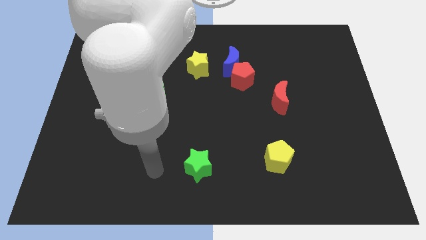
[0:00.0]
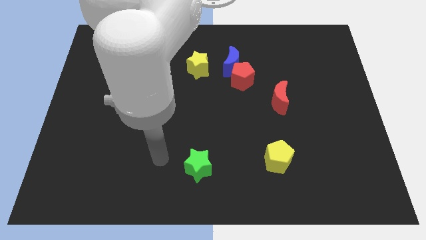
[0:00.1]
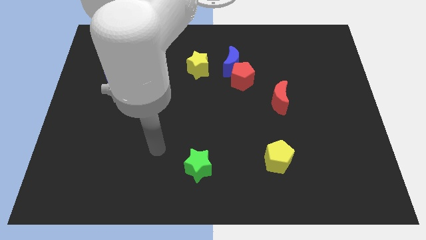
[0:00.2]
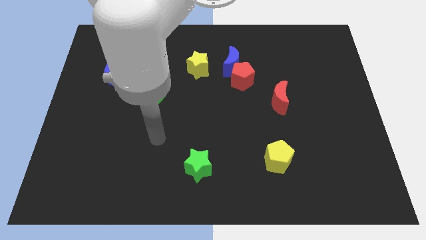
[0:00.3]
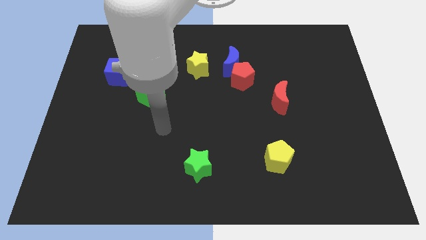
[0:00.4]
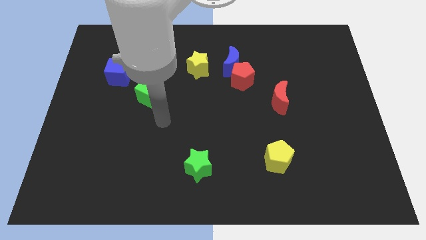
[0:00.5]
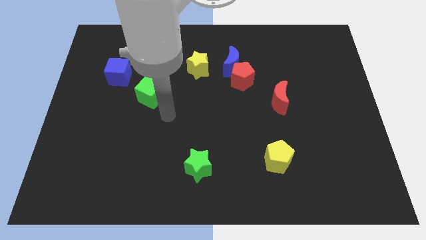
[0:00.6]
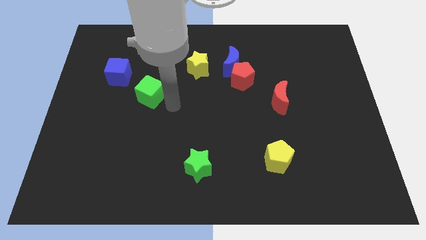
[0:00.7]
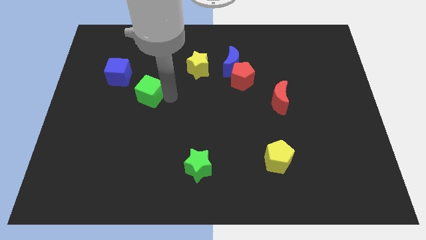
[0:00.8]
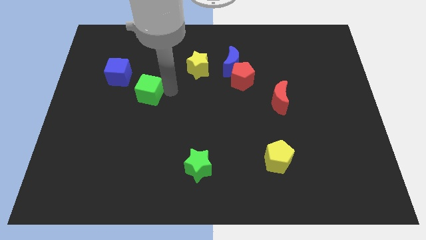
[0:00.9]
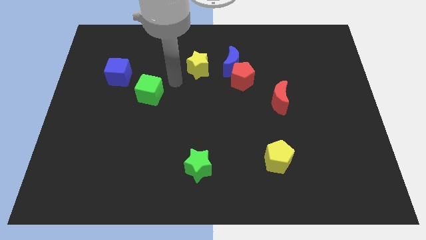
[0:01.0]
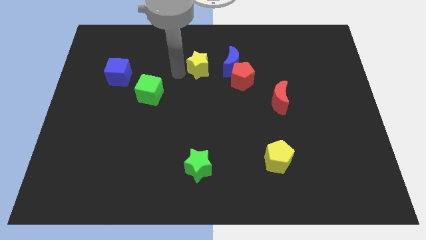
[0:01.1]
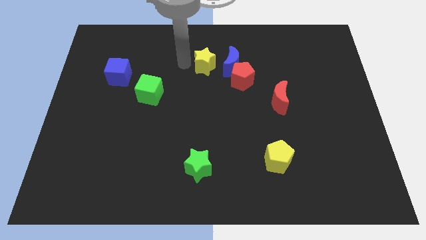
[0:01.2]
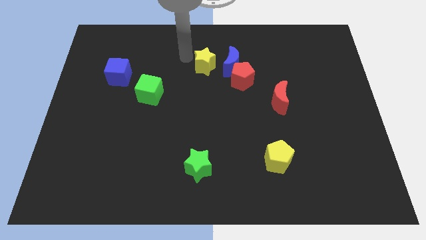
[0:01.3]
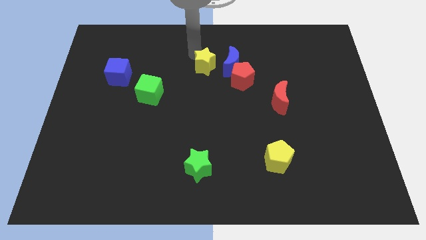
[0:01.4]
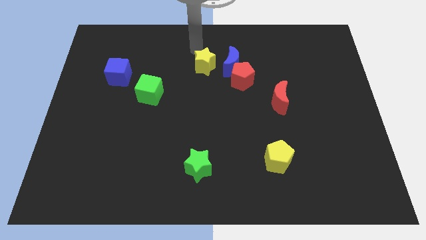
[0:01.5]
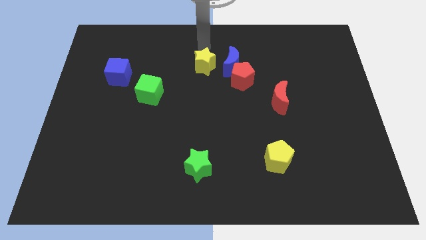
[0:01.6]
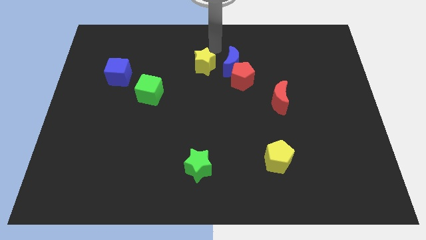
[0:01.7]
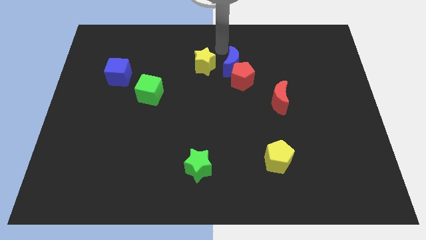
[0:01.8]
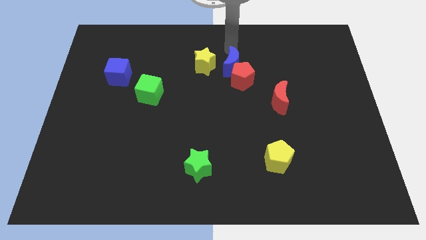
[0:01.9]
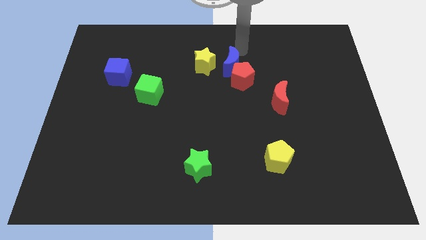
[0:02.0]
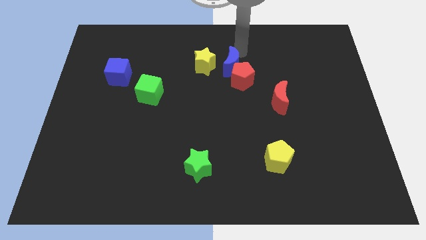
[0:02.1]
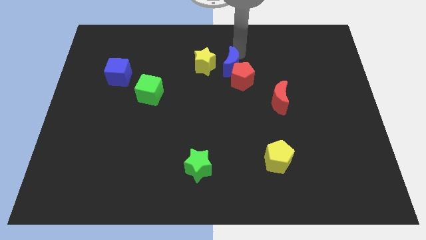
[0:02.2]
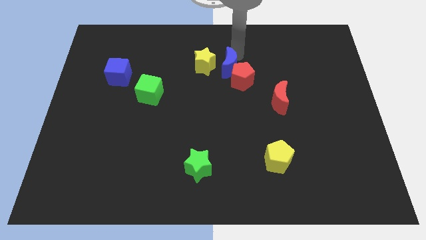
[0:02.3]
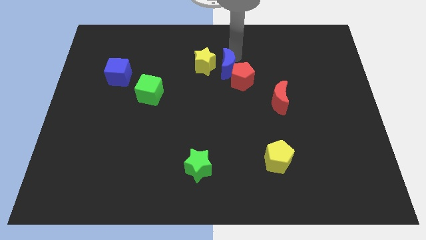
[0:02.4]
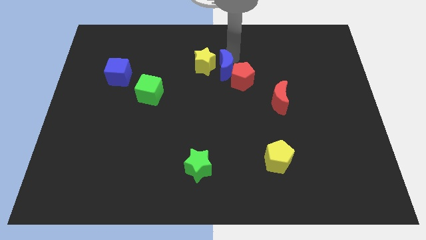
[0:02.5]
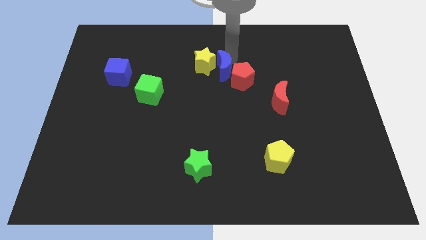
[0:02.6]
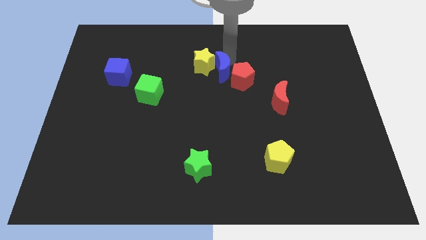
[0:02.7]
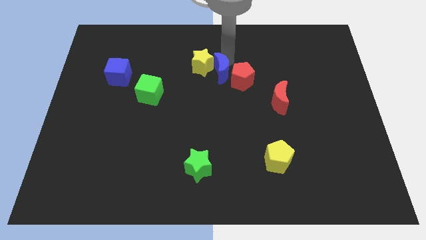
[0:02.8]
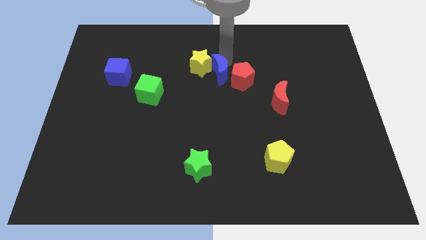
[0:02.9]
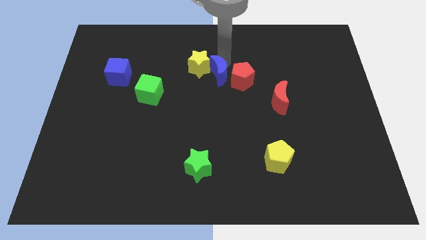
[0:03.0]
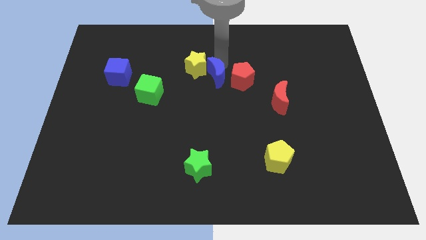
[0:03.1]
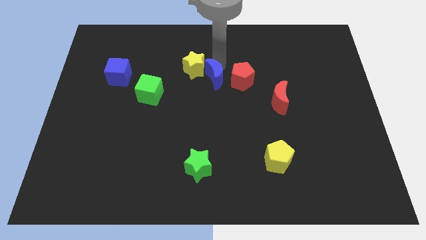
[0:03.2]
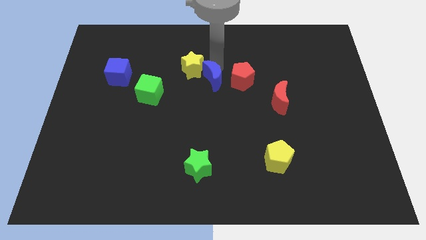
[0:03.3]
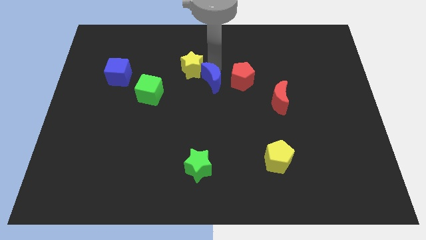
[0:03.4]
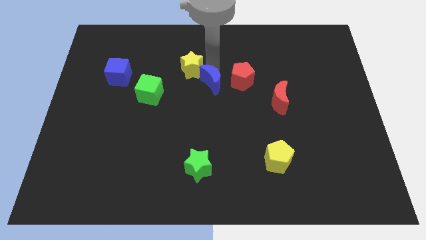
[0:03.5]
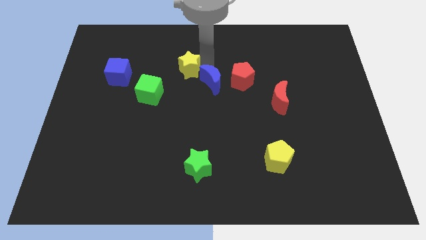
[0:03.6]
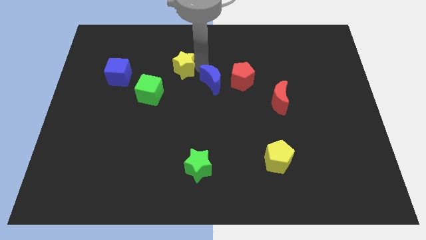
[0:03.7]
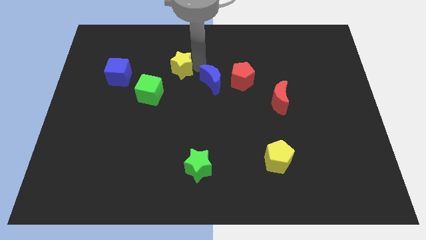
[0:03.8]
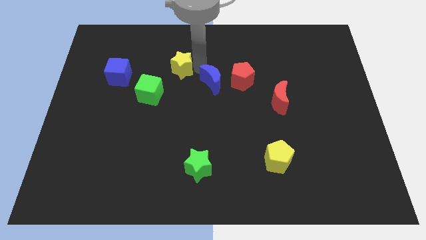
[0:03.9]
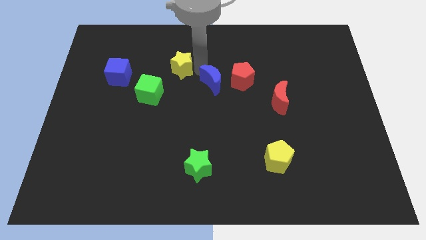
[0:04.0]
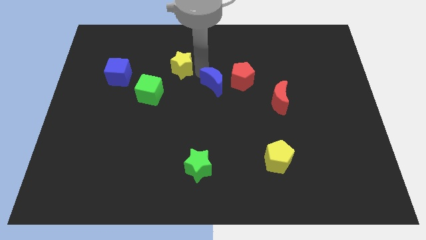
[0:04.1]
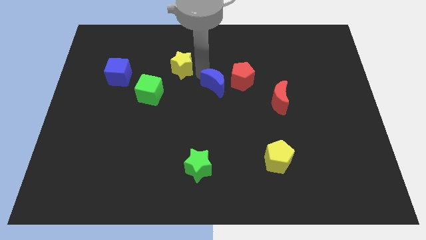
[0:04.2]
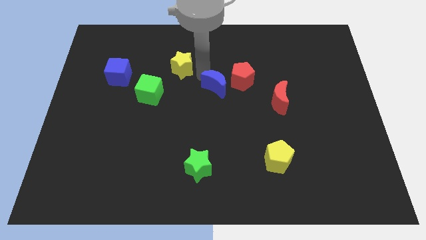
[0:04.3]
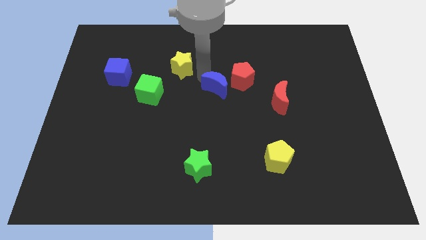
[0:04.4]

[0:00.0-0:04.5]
slide the blue moon a little down

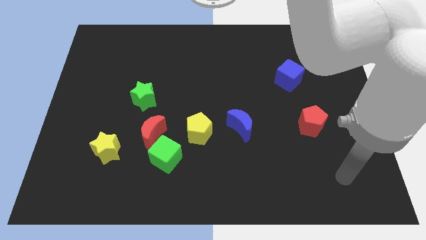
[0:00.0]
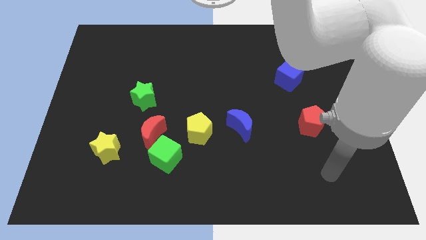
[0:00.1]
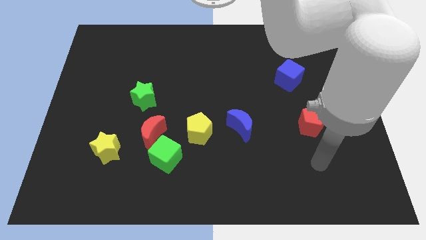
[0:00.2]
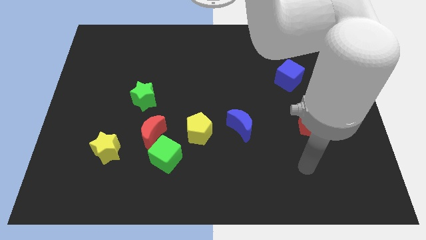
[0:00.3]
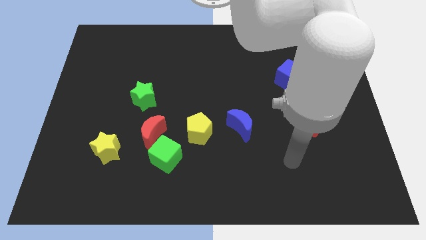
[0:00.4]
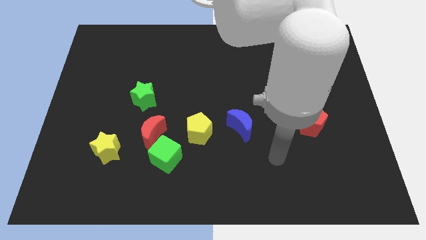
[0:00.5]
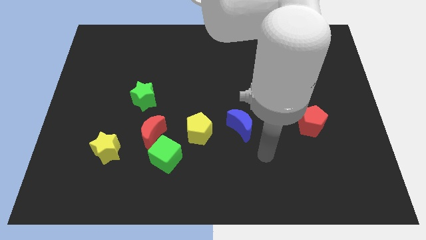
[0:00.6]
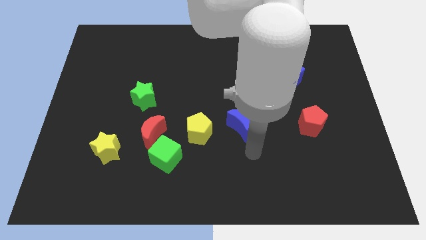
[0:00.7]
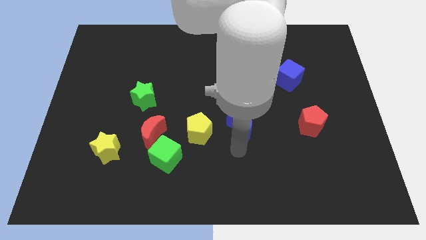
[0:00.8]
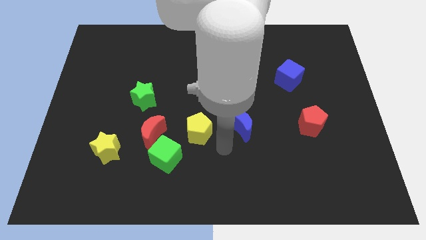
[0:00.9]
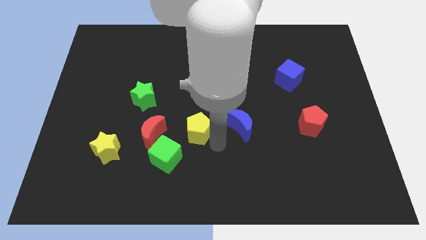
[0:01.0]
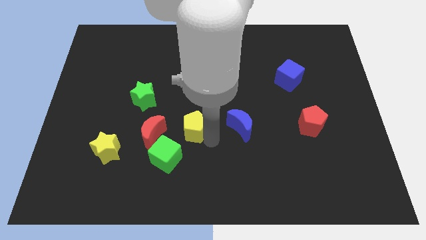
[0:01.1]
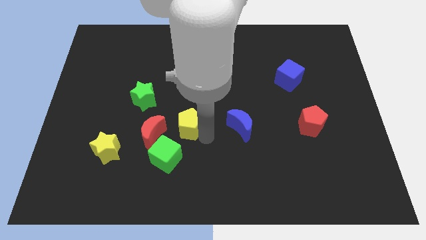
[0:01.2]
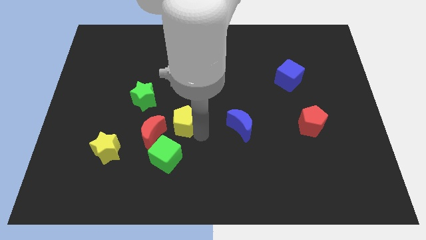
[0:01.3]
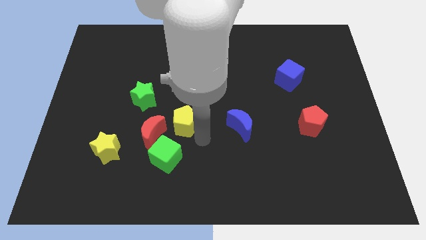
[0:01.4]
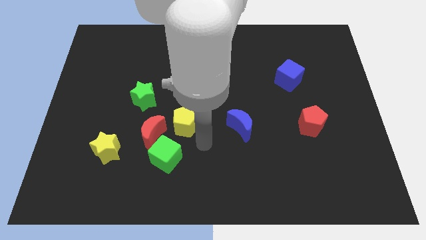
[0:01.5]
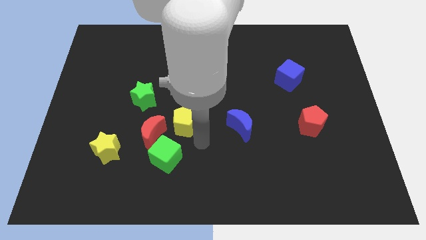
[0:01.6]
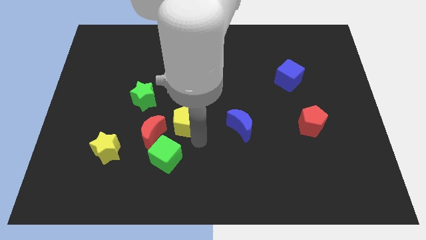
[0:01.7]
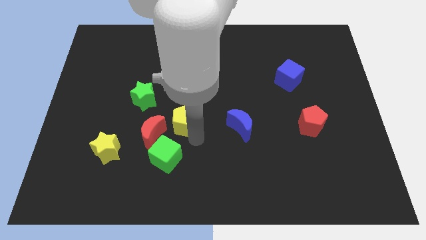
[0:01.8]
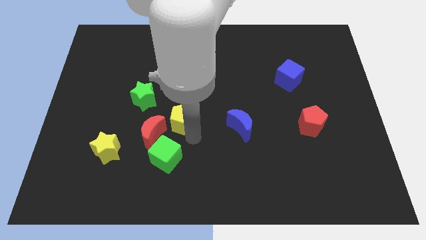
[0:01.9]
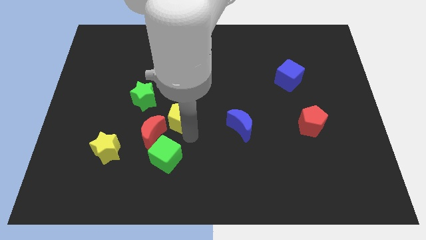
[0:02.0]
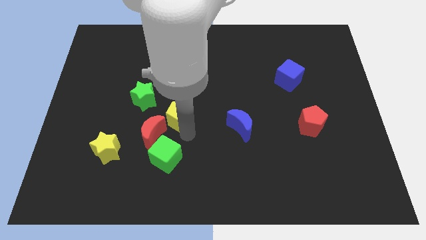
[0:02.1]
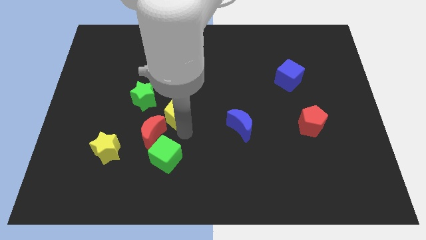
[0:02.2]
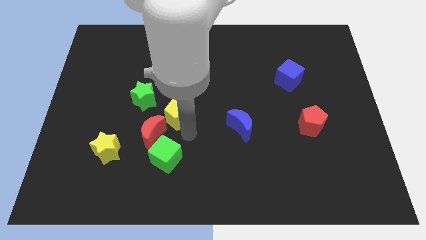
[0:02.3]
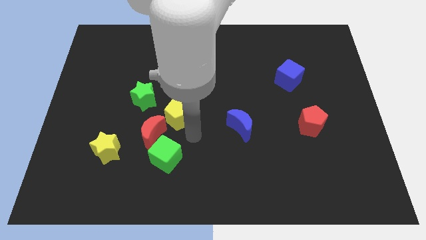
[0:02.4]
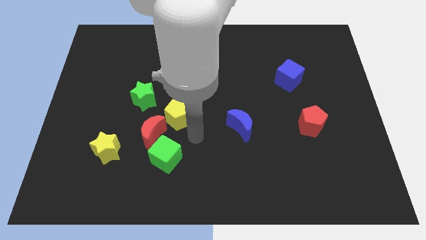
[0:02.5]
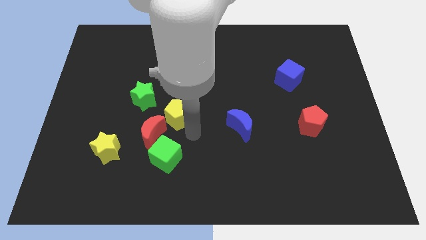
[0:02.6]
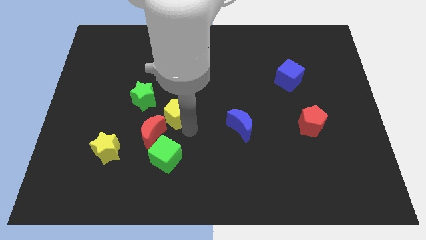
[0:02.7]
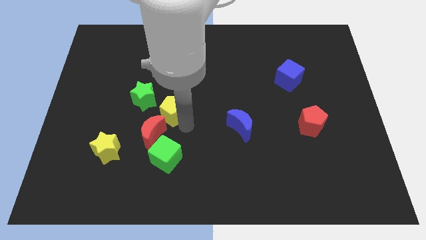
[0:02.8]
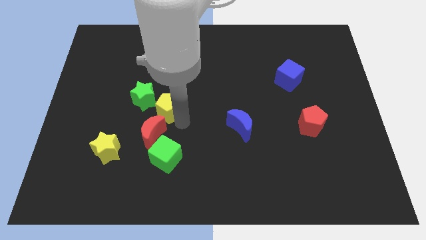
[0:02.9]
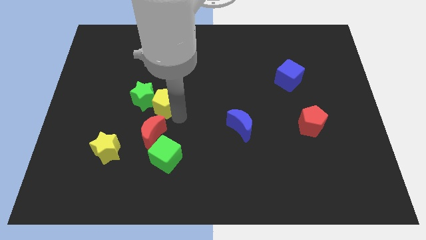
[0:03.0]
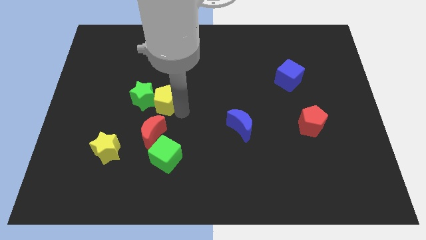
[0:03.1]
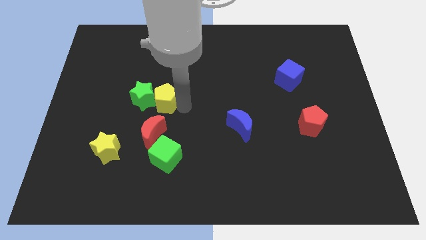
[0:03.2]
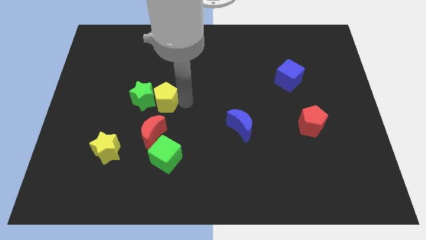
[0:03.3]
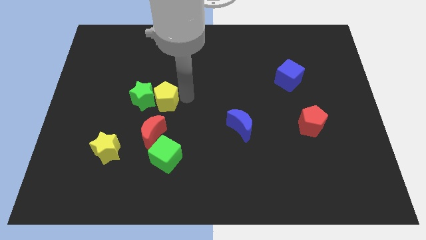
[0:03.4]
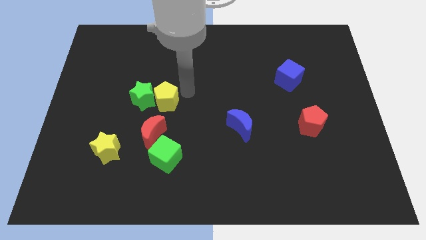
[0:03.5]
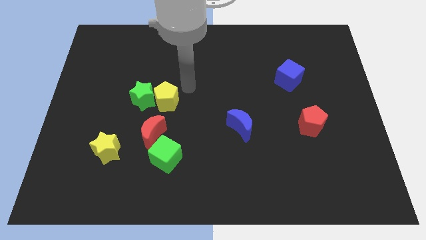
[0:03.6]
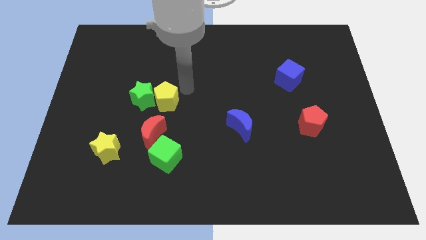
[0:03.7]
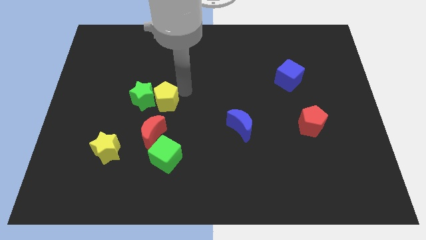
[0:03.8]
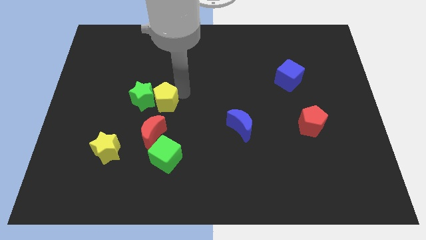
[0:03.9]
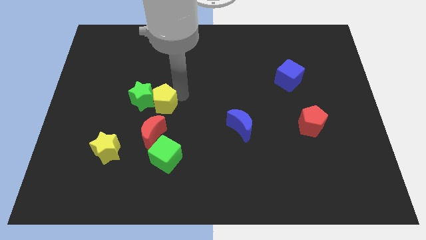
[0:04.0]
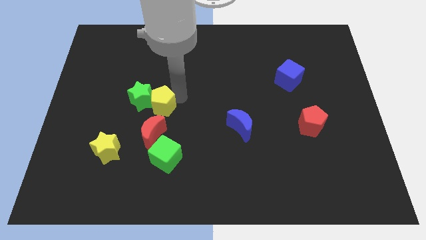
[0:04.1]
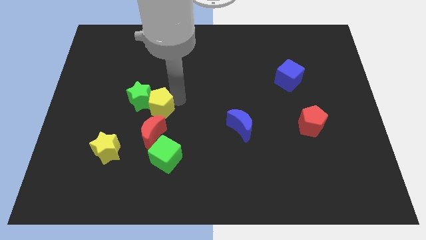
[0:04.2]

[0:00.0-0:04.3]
slide the yellow pentagon to the left slightly
